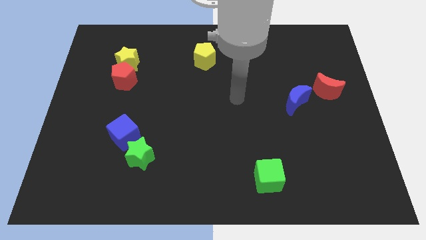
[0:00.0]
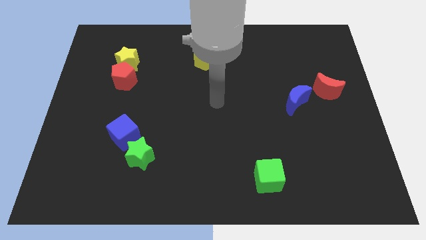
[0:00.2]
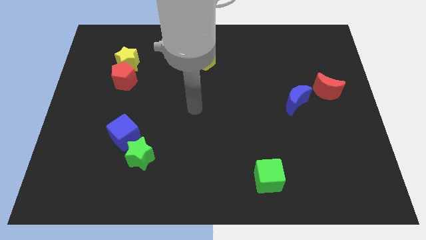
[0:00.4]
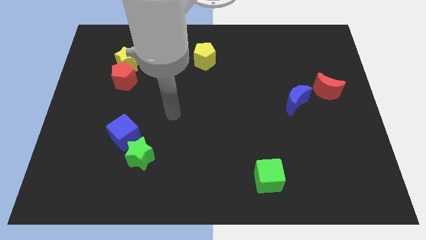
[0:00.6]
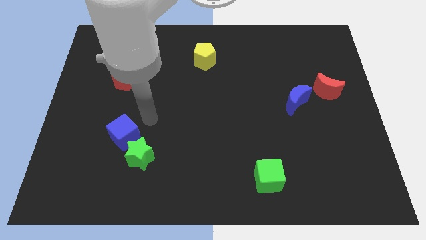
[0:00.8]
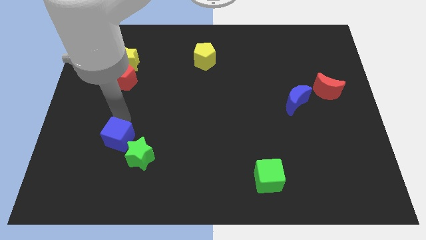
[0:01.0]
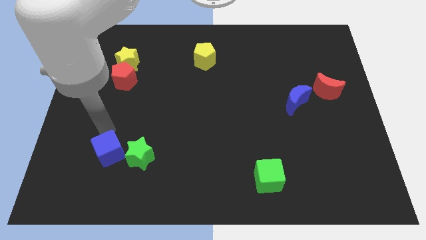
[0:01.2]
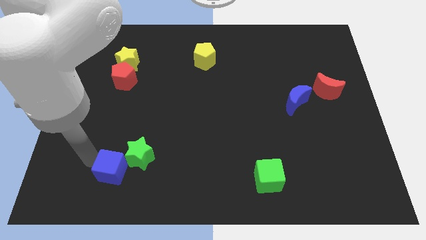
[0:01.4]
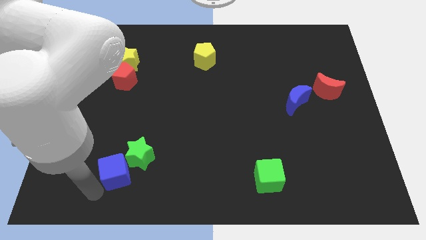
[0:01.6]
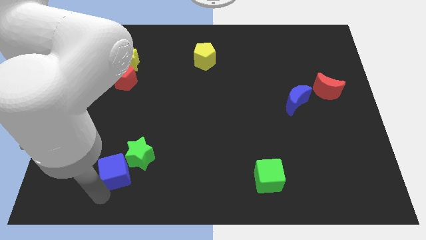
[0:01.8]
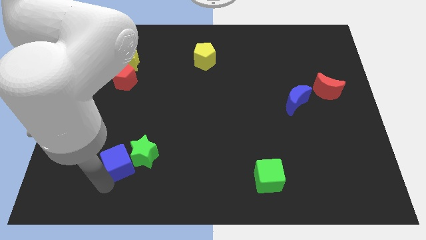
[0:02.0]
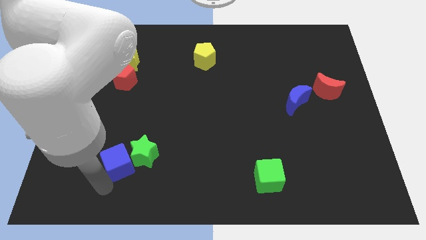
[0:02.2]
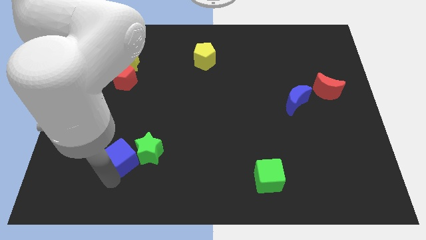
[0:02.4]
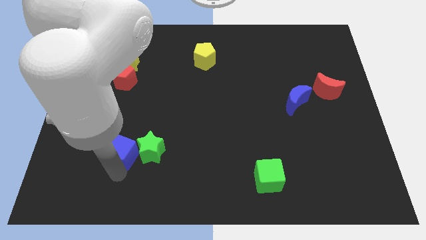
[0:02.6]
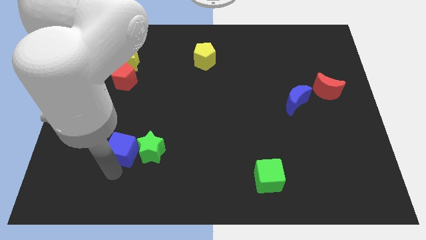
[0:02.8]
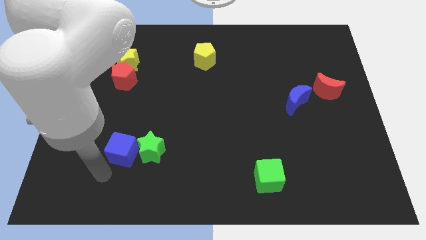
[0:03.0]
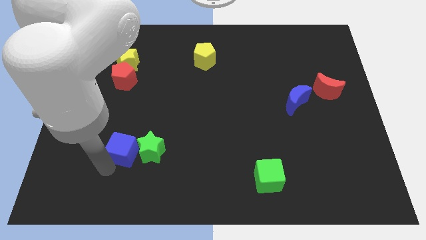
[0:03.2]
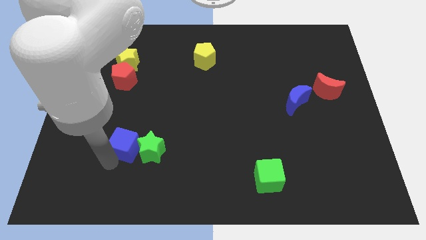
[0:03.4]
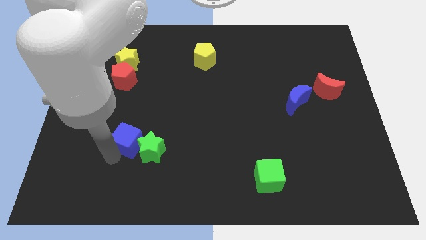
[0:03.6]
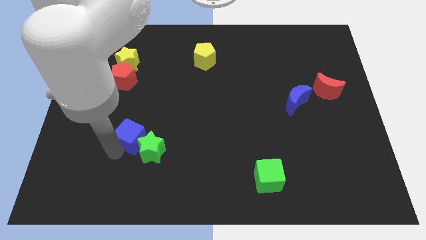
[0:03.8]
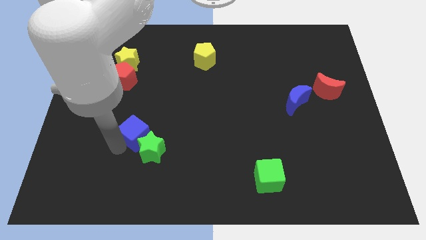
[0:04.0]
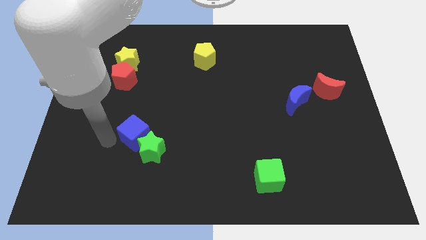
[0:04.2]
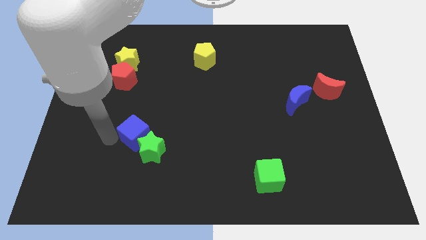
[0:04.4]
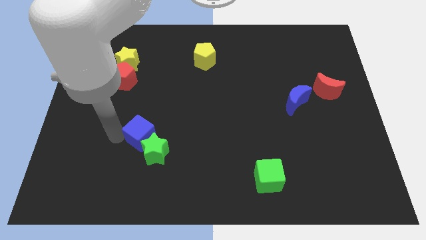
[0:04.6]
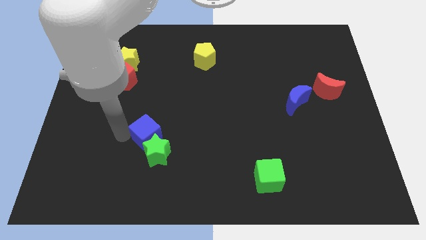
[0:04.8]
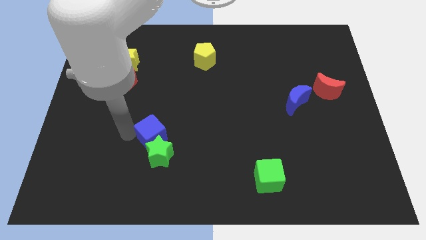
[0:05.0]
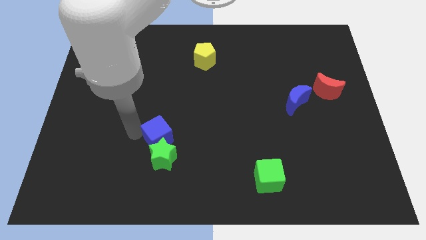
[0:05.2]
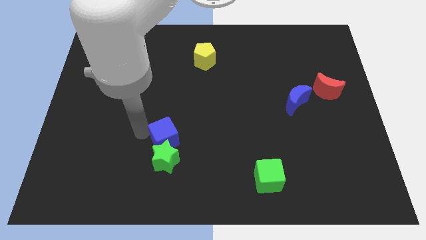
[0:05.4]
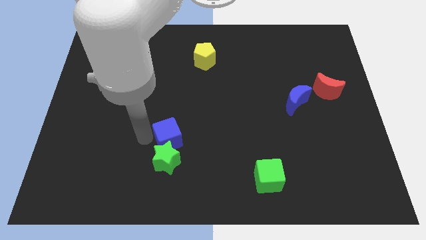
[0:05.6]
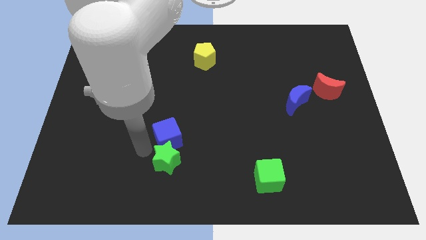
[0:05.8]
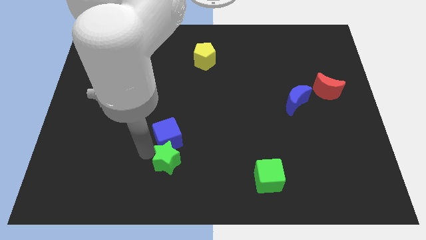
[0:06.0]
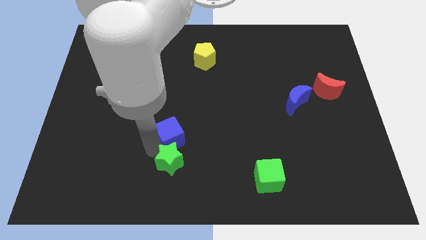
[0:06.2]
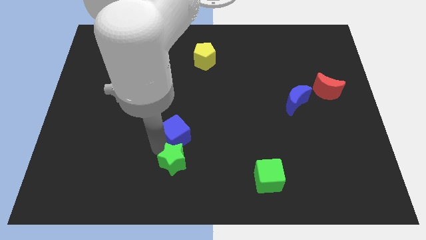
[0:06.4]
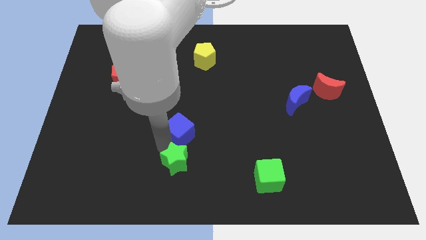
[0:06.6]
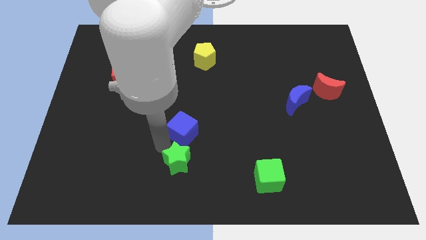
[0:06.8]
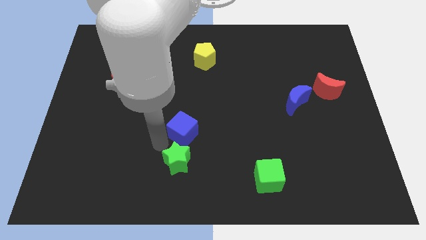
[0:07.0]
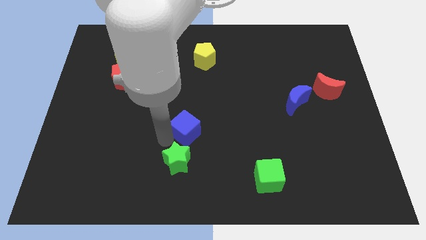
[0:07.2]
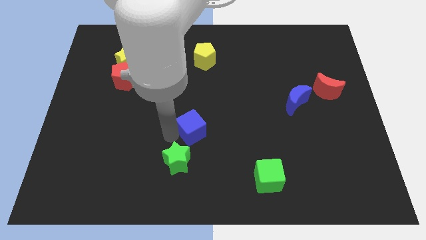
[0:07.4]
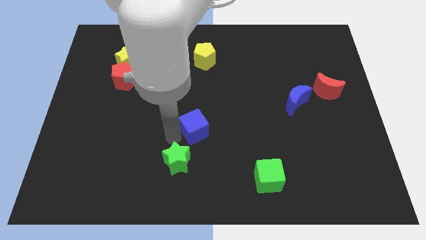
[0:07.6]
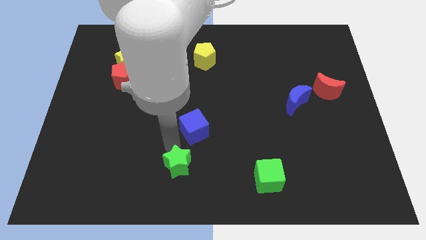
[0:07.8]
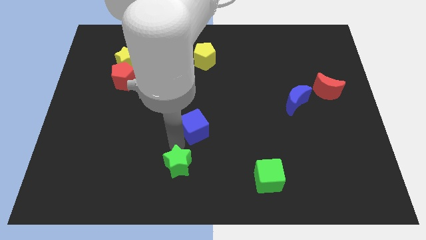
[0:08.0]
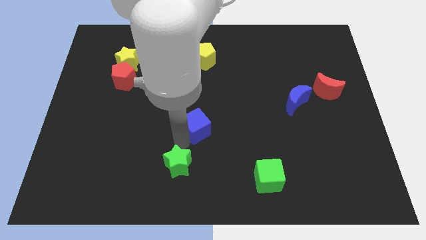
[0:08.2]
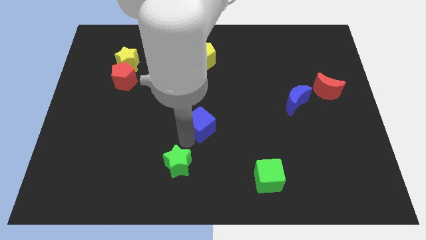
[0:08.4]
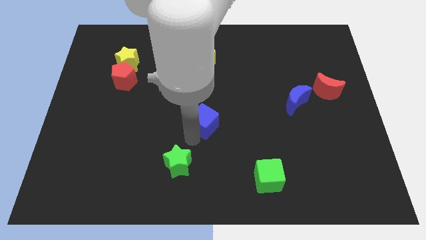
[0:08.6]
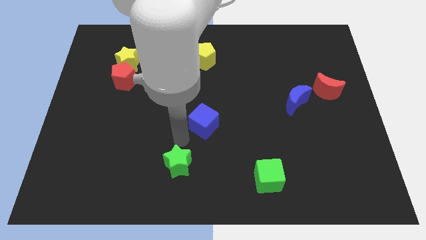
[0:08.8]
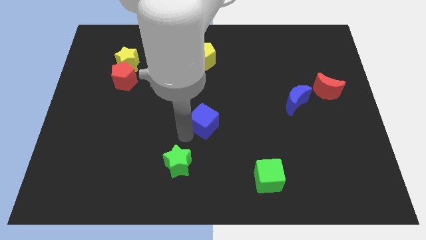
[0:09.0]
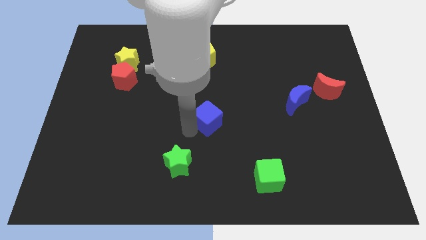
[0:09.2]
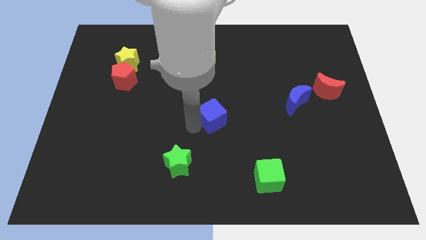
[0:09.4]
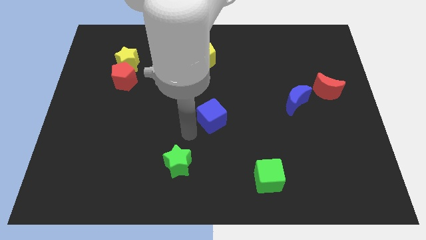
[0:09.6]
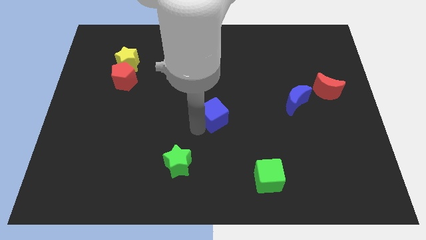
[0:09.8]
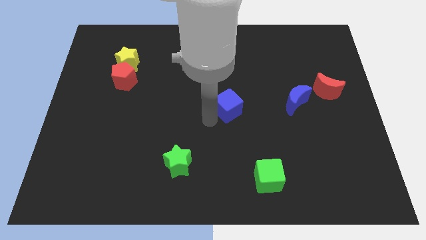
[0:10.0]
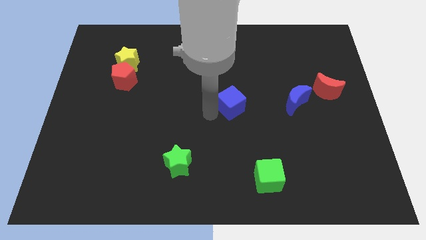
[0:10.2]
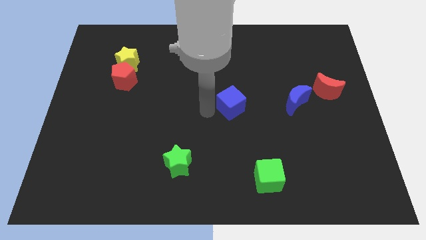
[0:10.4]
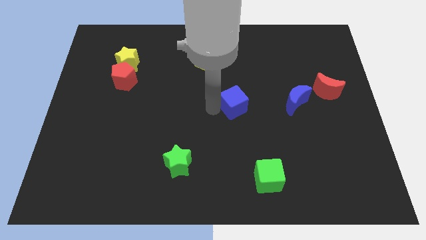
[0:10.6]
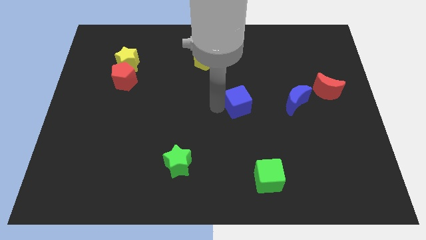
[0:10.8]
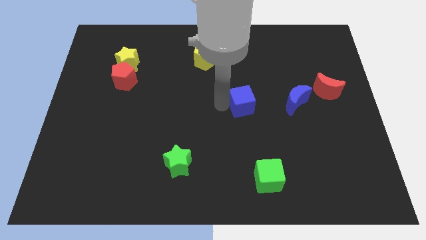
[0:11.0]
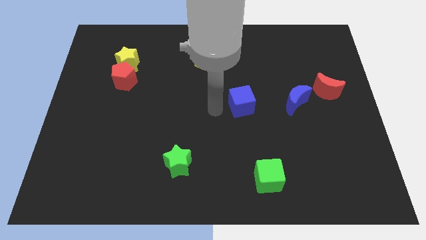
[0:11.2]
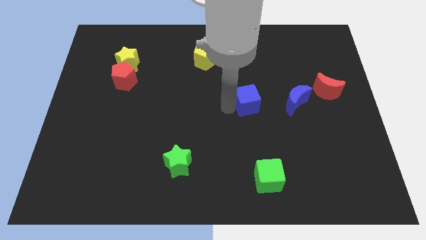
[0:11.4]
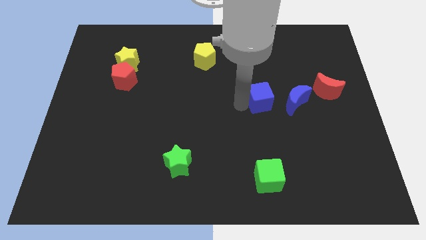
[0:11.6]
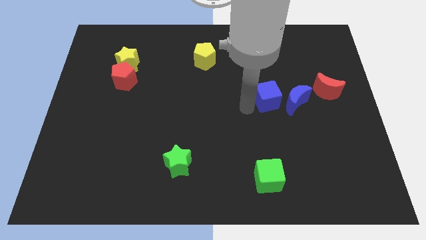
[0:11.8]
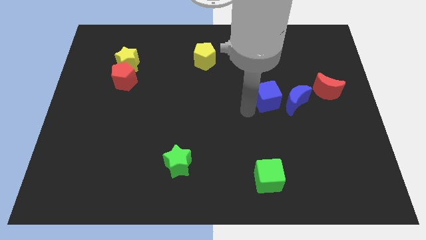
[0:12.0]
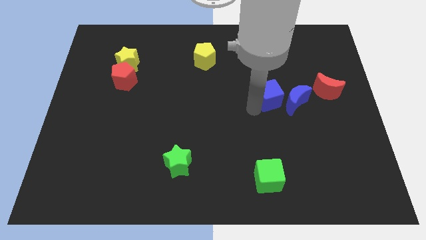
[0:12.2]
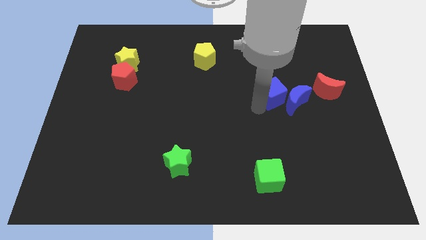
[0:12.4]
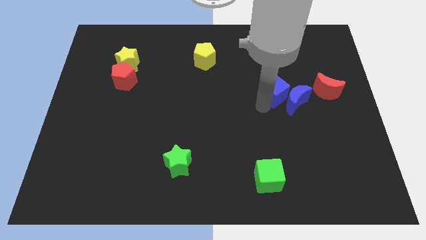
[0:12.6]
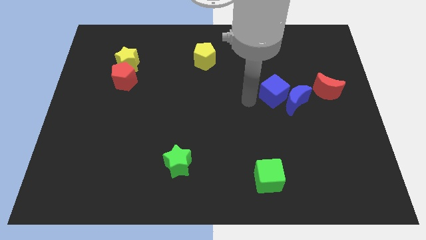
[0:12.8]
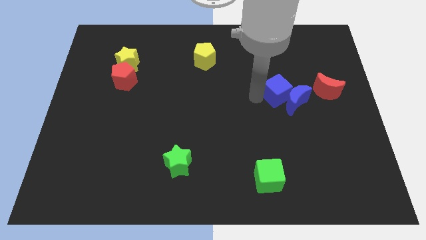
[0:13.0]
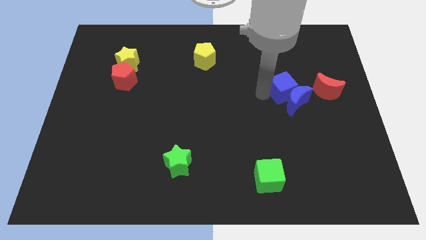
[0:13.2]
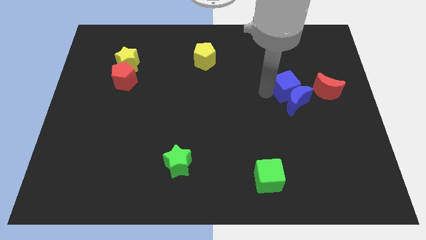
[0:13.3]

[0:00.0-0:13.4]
put the blue cube to the top right of the blue moon

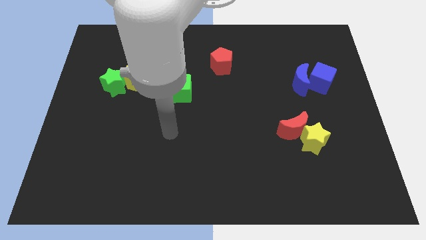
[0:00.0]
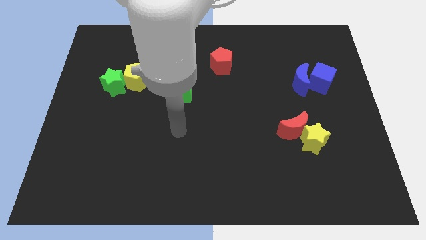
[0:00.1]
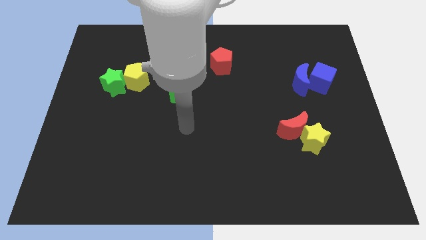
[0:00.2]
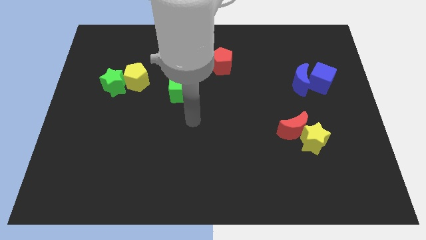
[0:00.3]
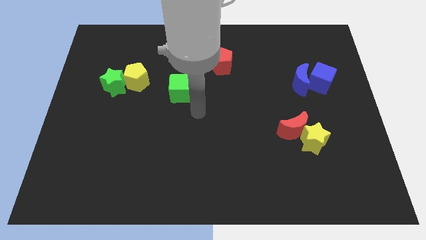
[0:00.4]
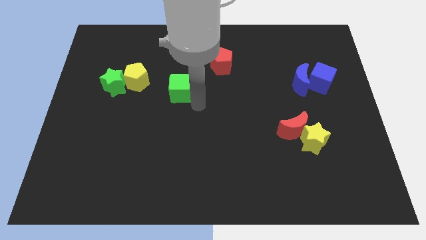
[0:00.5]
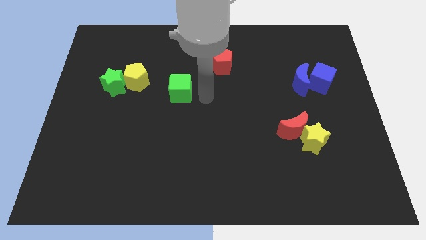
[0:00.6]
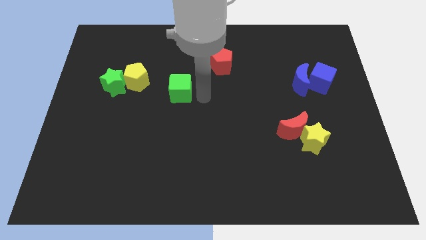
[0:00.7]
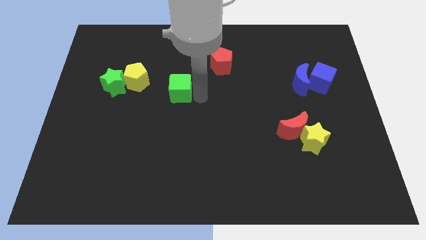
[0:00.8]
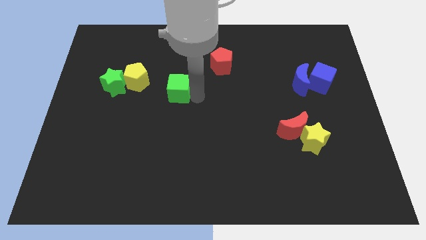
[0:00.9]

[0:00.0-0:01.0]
move the green cube to the right side of the green star
